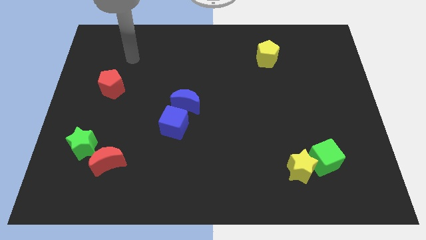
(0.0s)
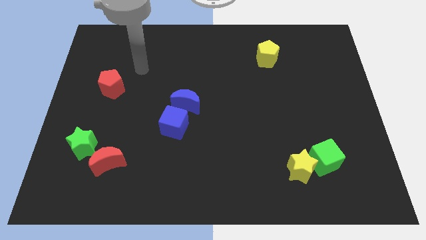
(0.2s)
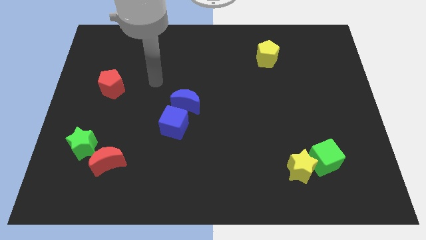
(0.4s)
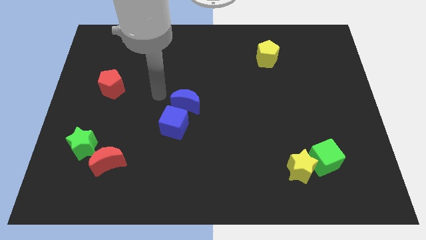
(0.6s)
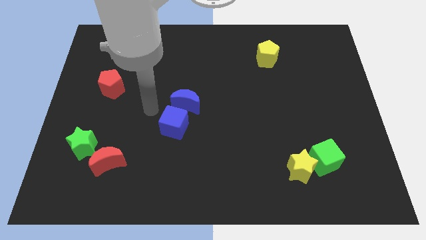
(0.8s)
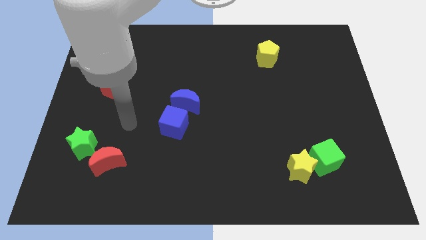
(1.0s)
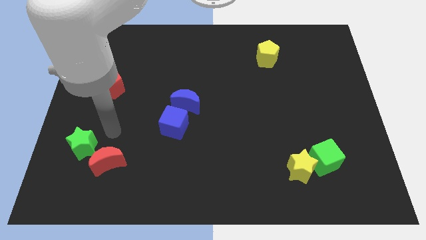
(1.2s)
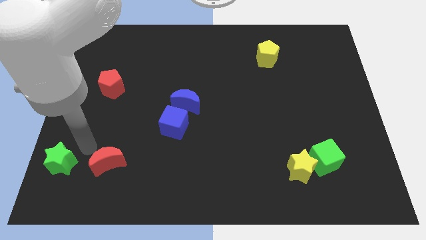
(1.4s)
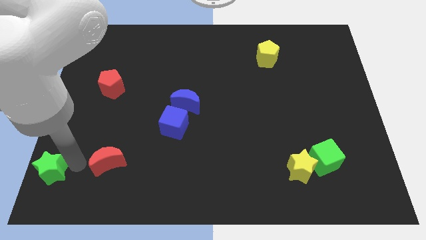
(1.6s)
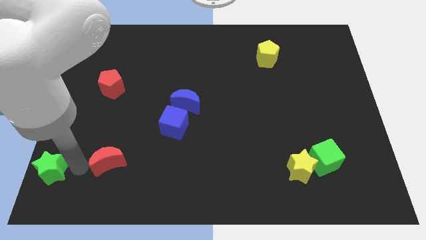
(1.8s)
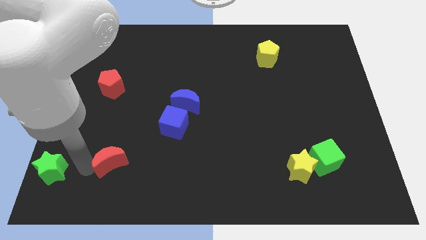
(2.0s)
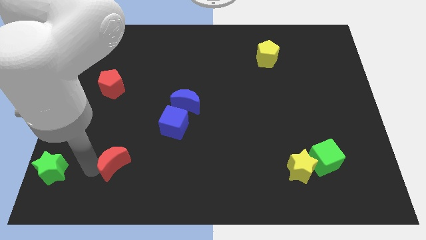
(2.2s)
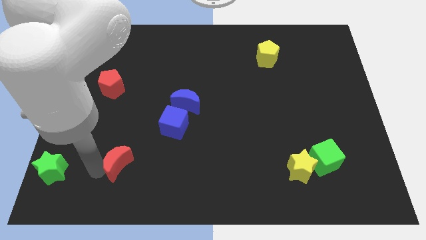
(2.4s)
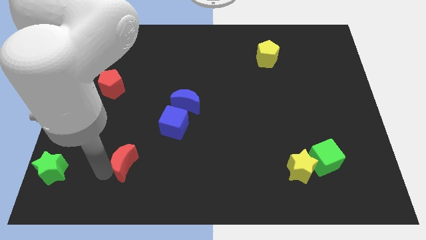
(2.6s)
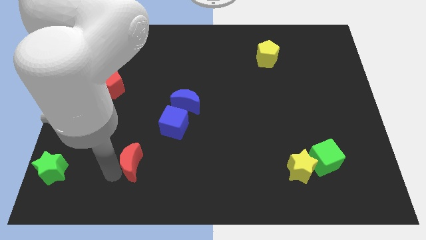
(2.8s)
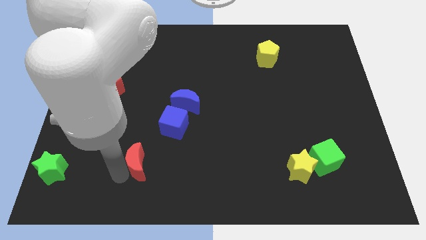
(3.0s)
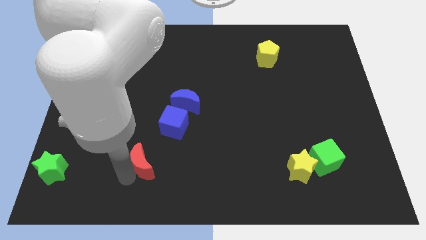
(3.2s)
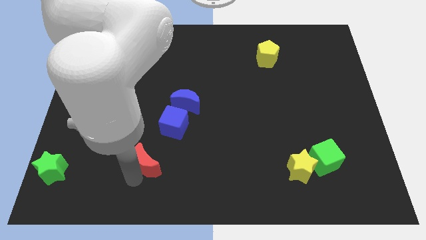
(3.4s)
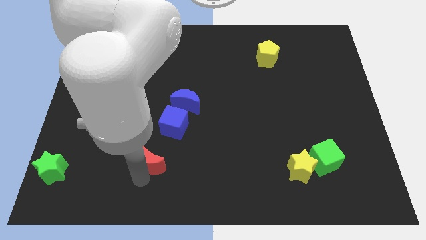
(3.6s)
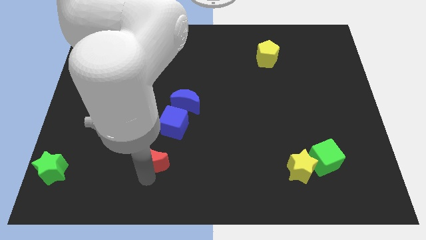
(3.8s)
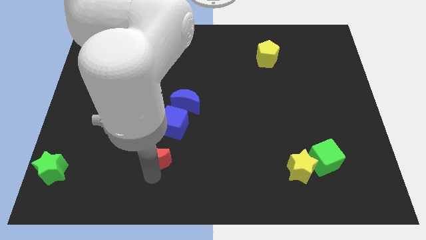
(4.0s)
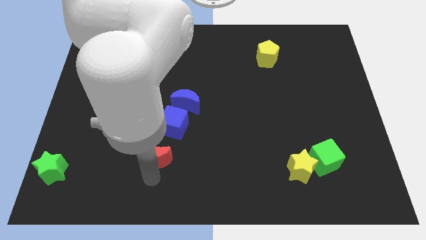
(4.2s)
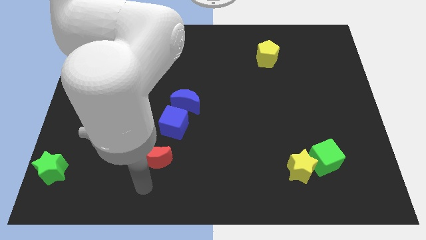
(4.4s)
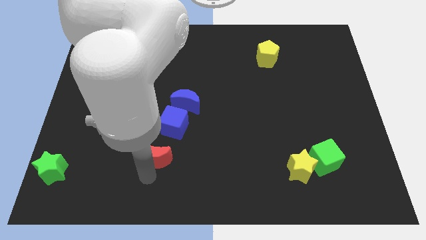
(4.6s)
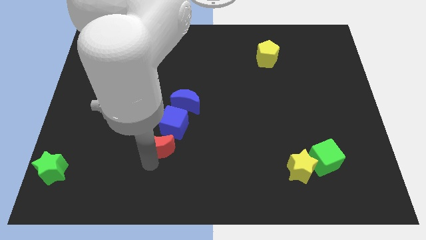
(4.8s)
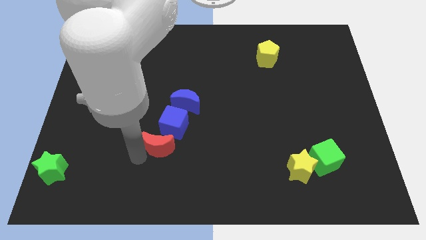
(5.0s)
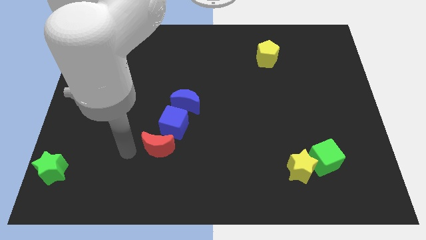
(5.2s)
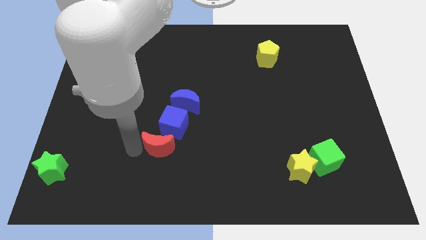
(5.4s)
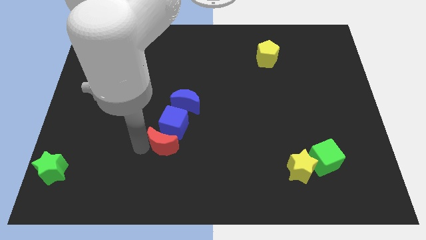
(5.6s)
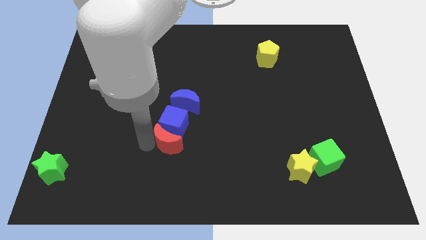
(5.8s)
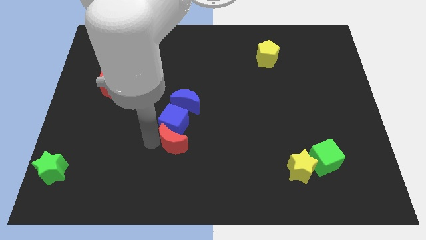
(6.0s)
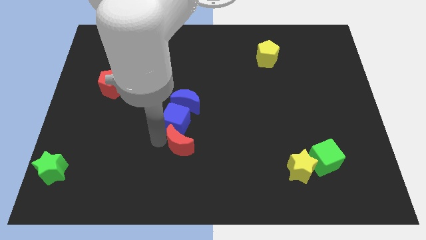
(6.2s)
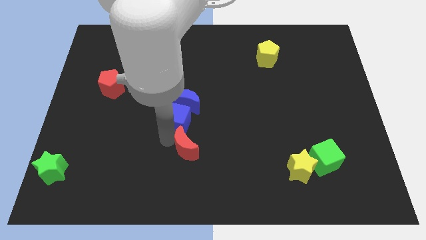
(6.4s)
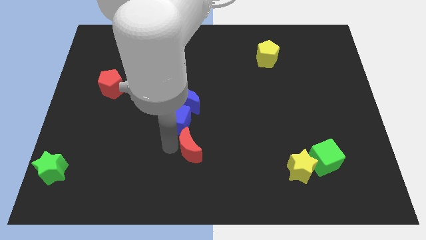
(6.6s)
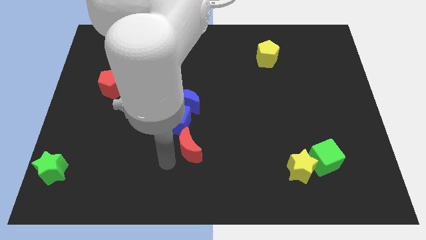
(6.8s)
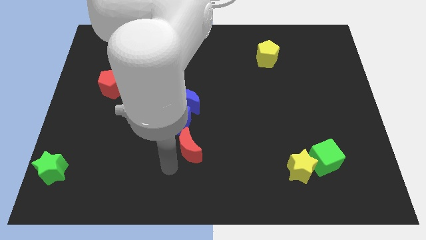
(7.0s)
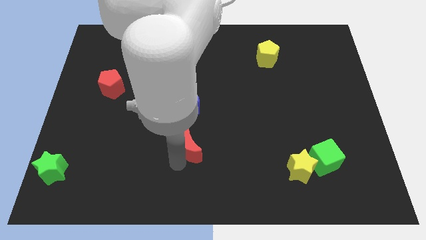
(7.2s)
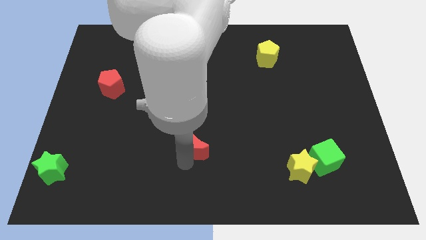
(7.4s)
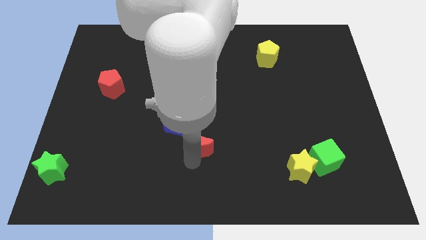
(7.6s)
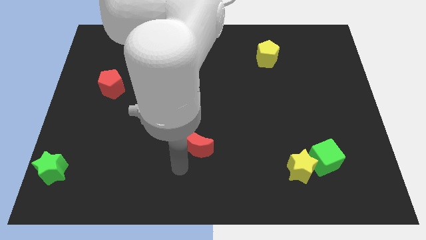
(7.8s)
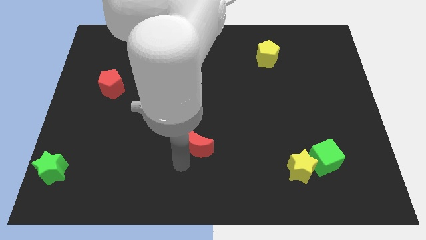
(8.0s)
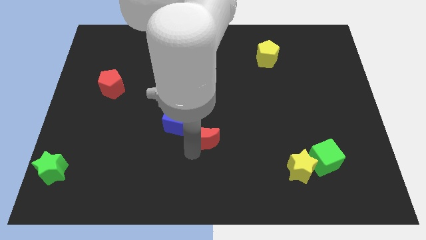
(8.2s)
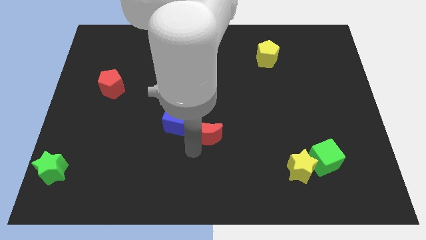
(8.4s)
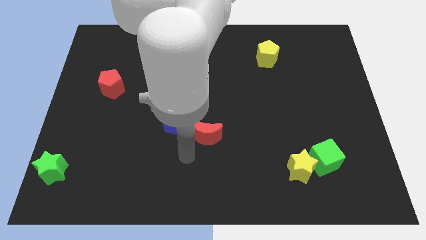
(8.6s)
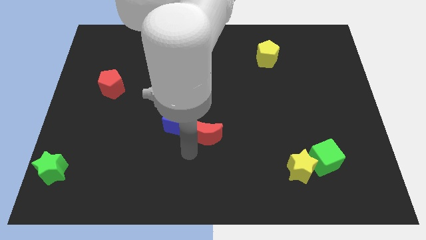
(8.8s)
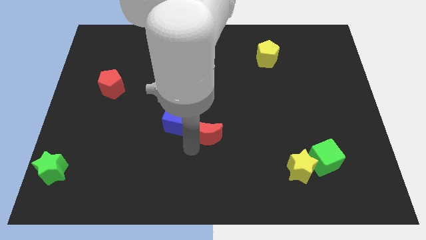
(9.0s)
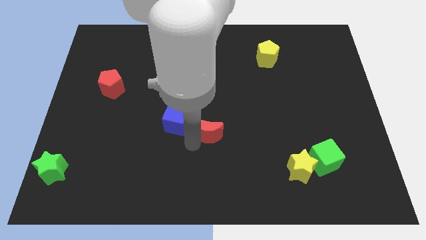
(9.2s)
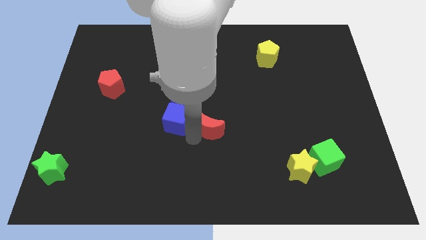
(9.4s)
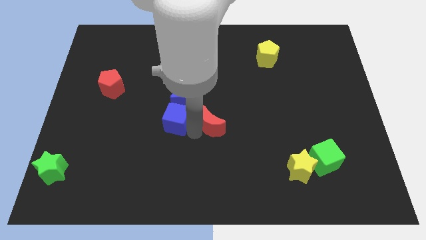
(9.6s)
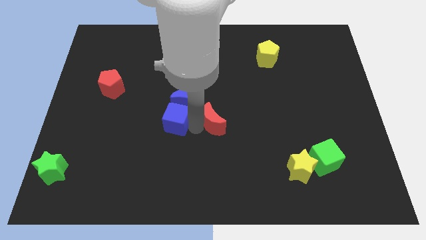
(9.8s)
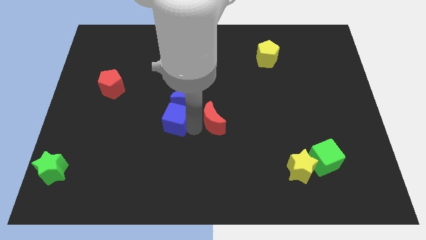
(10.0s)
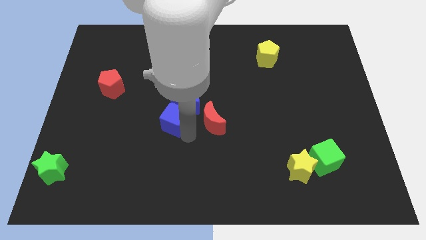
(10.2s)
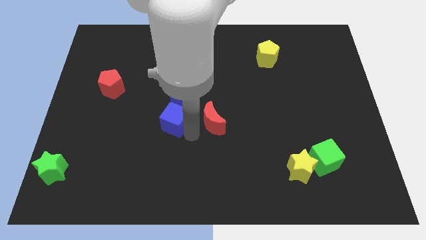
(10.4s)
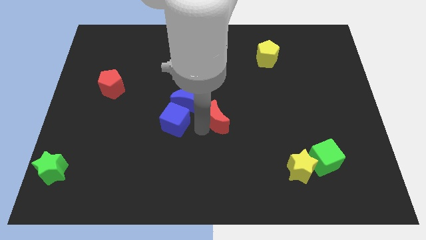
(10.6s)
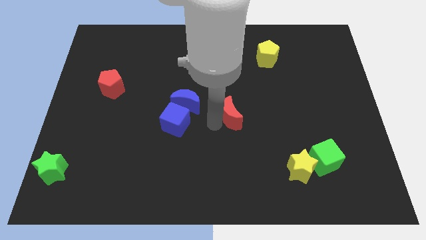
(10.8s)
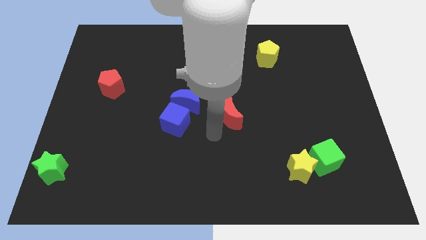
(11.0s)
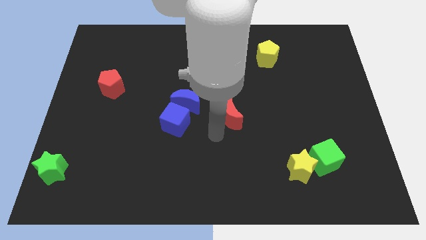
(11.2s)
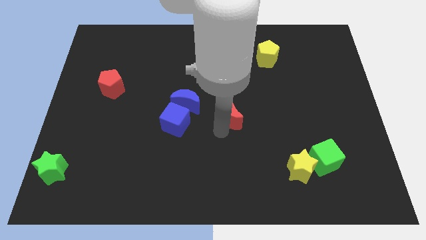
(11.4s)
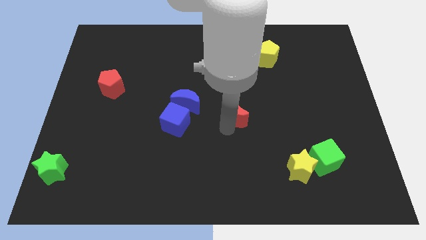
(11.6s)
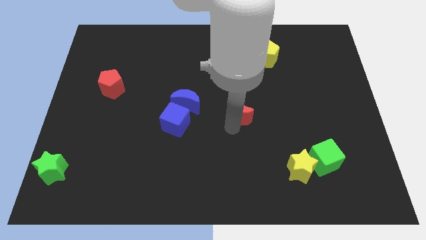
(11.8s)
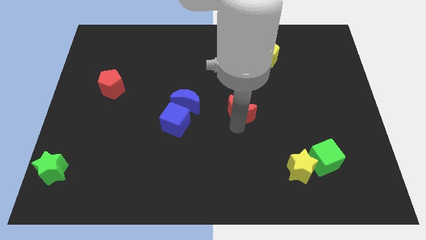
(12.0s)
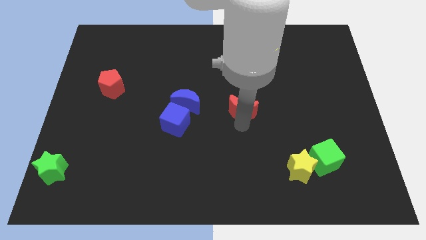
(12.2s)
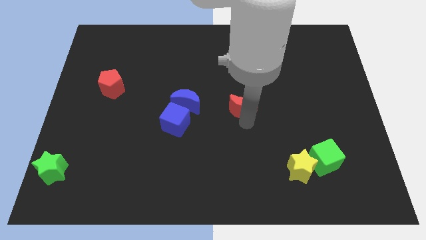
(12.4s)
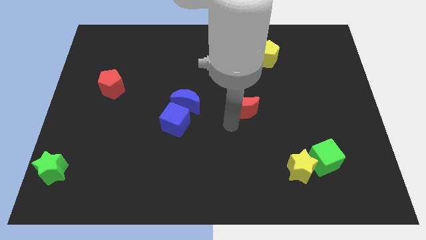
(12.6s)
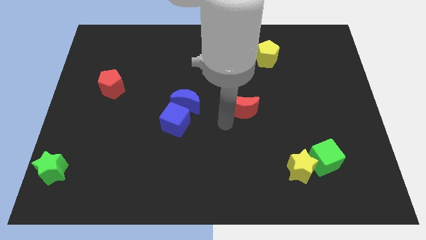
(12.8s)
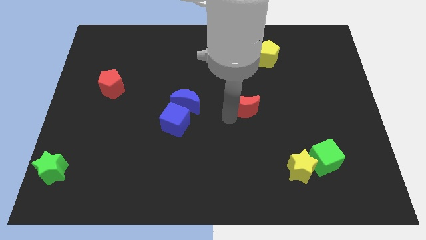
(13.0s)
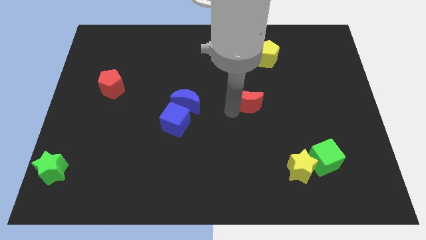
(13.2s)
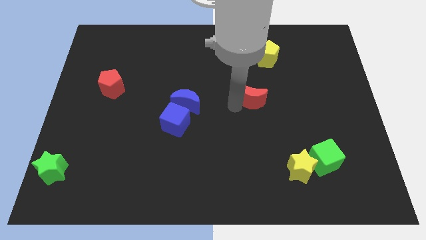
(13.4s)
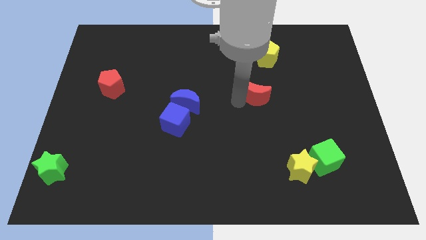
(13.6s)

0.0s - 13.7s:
push the red moon to the bottom side of the yellow pentagon

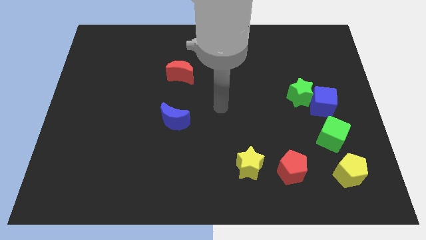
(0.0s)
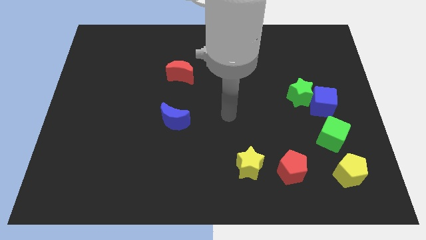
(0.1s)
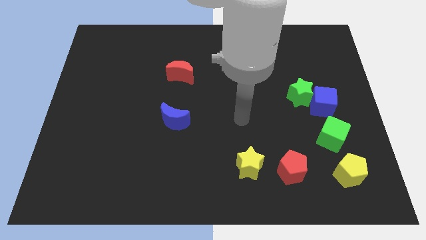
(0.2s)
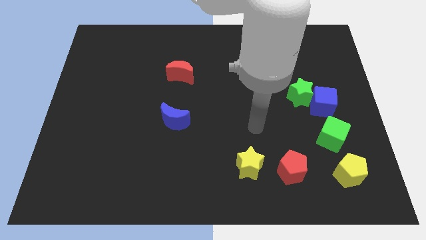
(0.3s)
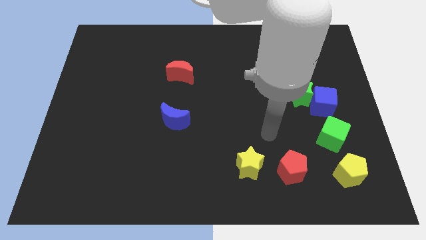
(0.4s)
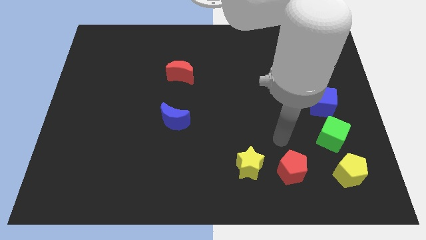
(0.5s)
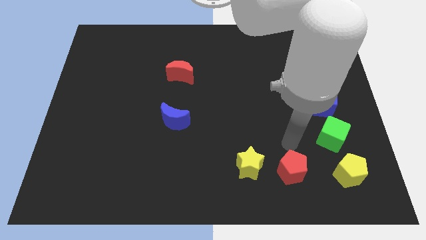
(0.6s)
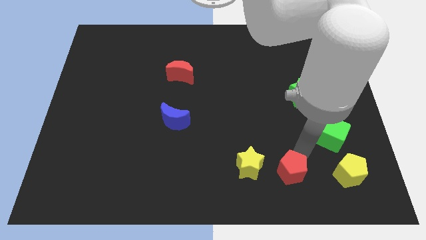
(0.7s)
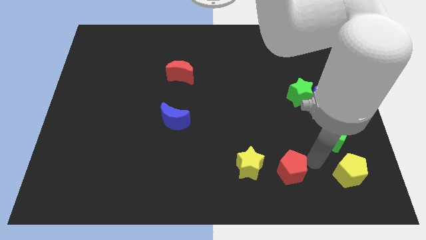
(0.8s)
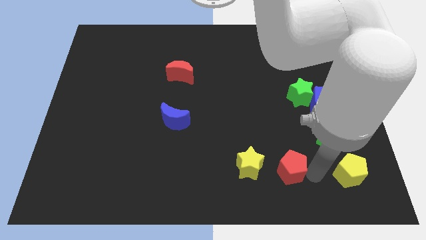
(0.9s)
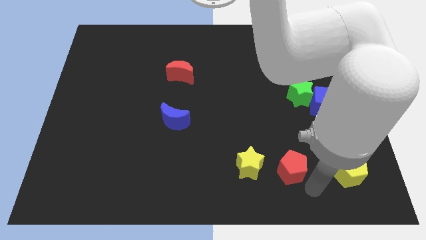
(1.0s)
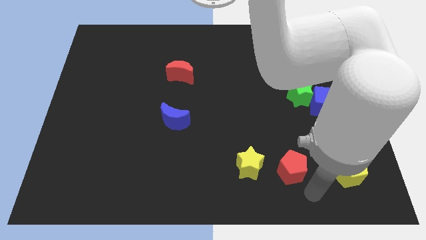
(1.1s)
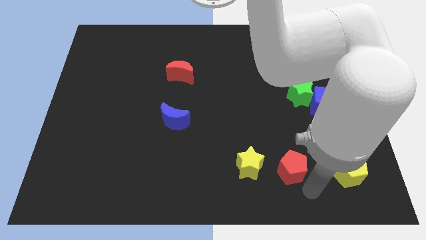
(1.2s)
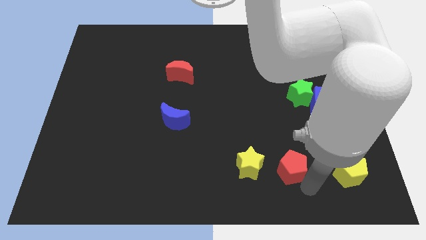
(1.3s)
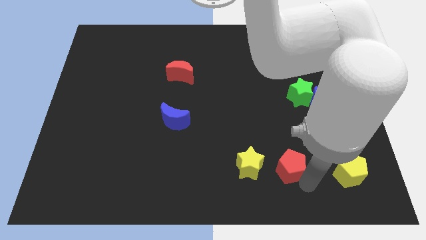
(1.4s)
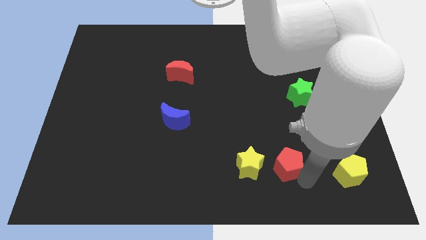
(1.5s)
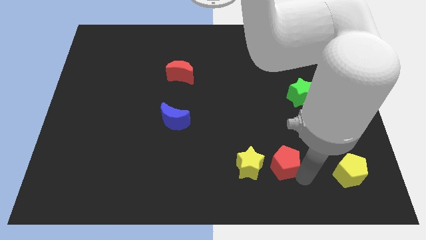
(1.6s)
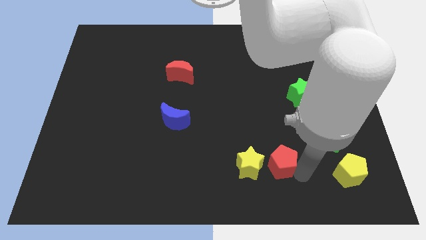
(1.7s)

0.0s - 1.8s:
push the red pentagon diagonally up and to the right of the yellow star
